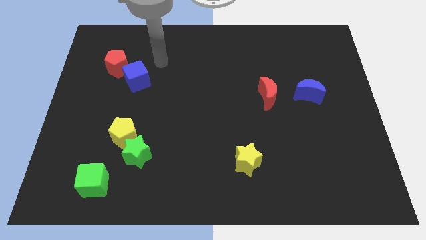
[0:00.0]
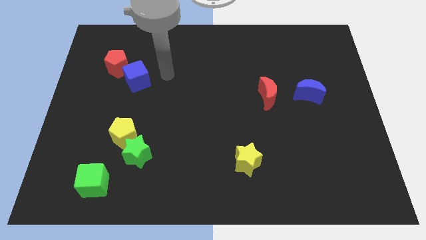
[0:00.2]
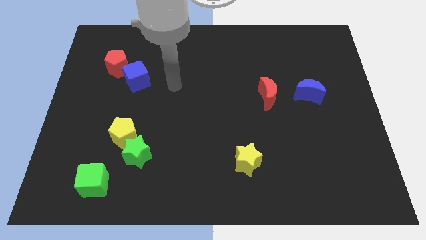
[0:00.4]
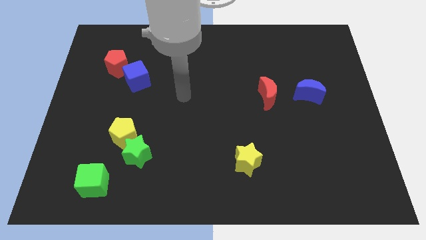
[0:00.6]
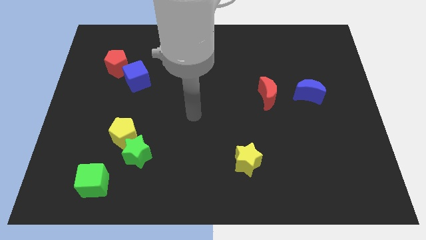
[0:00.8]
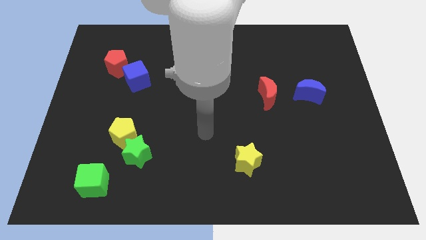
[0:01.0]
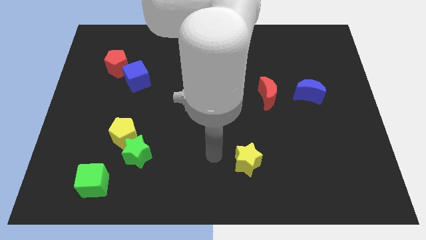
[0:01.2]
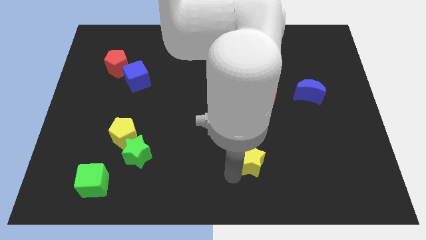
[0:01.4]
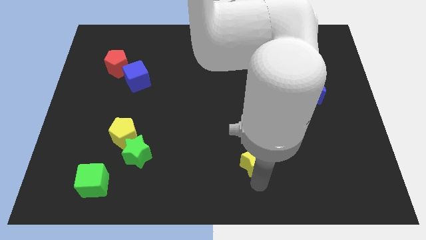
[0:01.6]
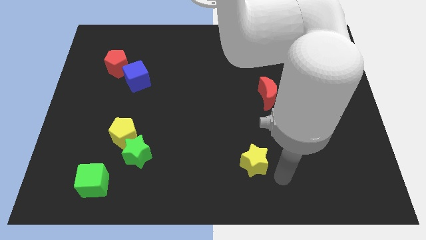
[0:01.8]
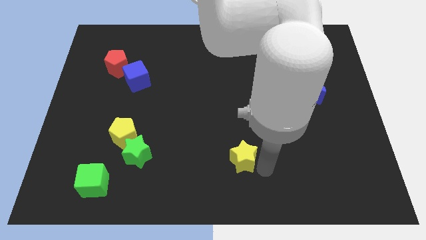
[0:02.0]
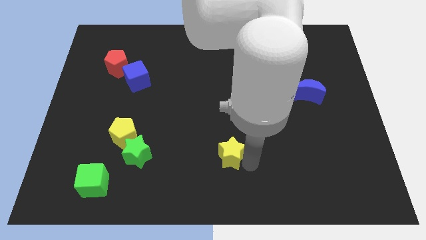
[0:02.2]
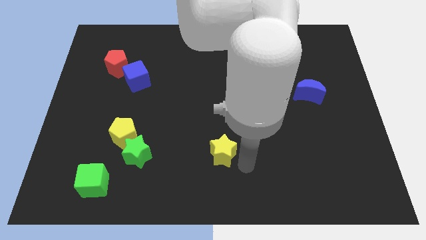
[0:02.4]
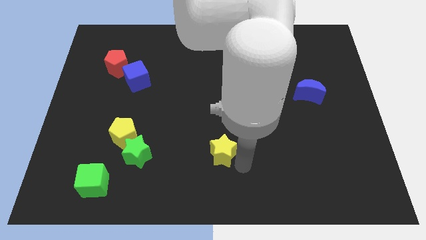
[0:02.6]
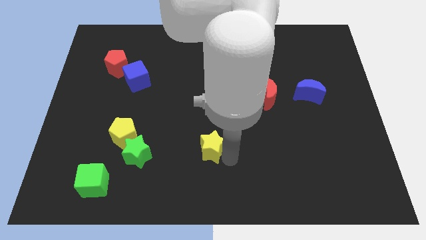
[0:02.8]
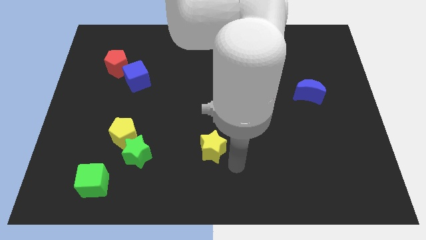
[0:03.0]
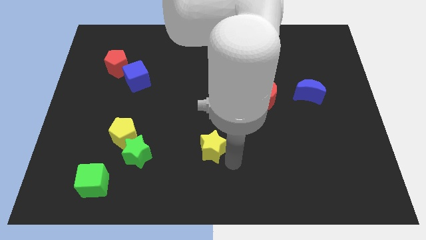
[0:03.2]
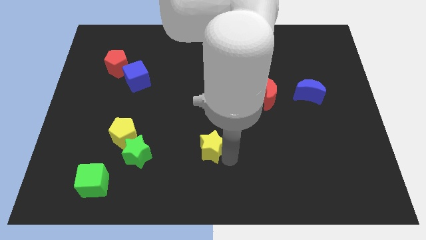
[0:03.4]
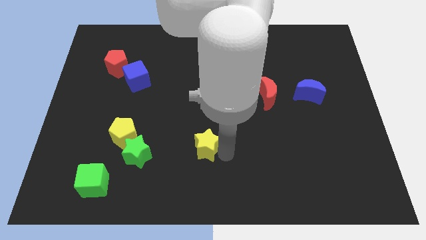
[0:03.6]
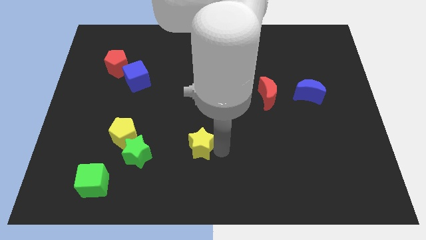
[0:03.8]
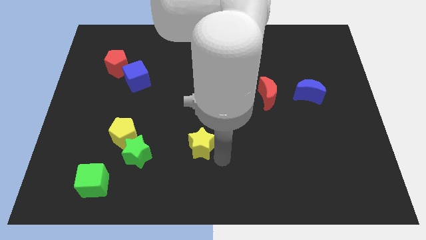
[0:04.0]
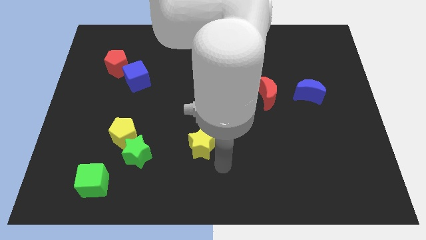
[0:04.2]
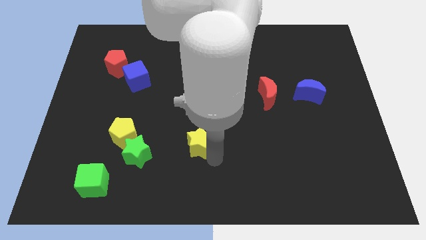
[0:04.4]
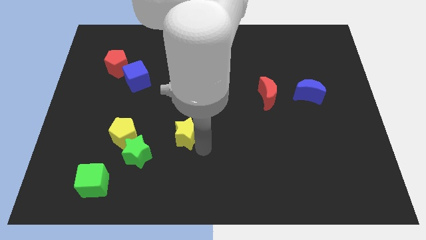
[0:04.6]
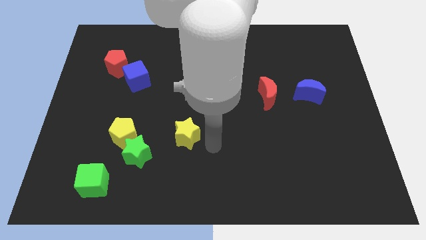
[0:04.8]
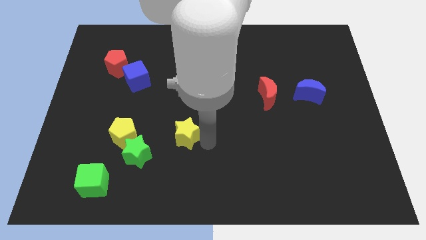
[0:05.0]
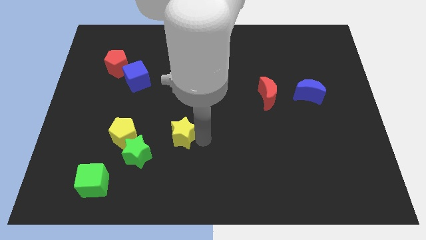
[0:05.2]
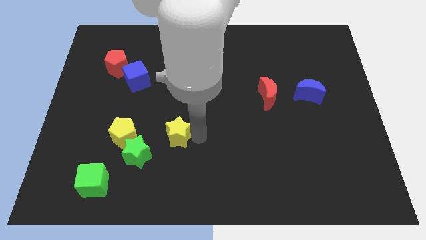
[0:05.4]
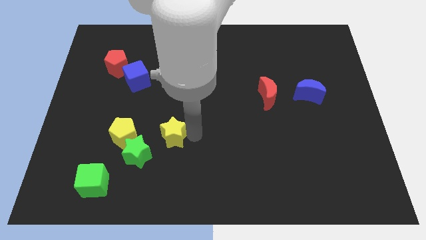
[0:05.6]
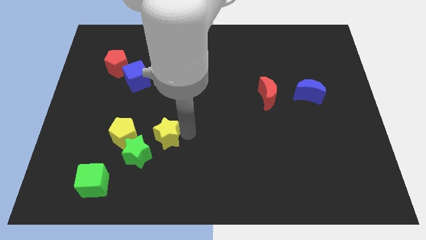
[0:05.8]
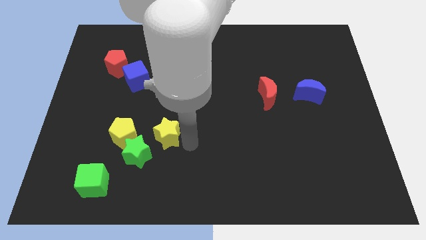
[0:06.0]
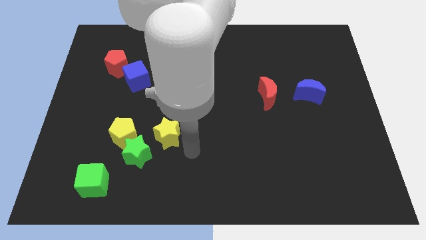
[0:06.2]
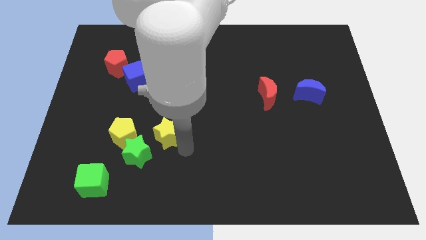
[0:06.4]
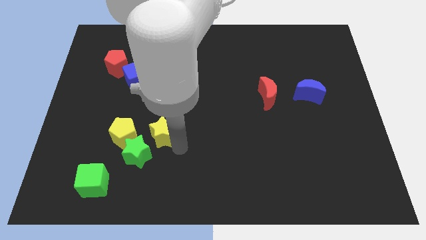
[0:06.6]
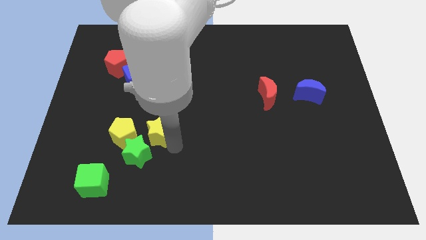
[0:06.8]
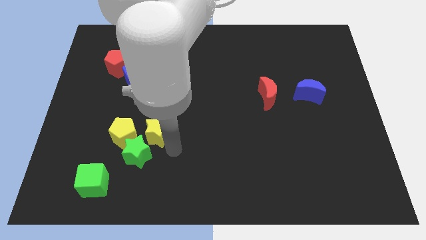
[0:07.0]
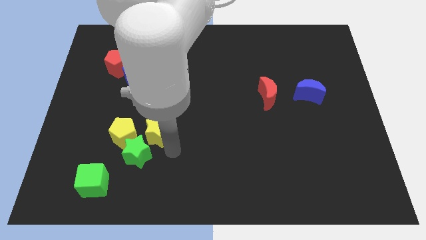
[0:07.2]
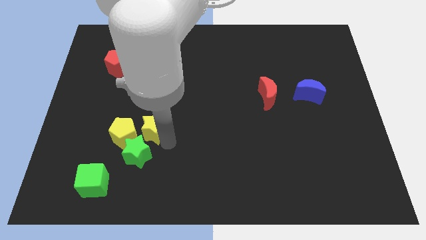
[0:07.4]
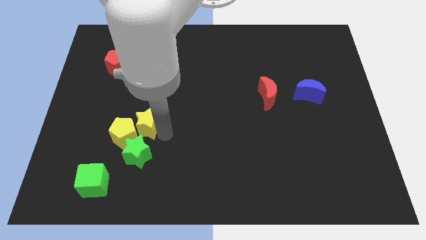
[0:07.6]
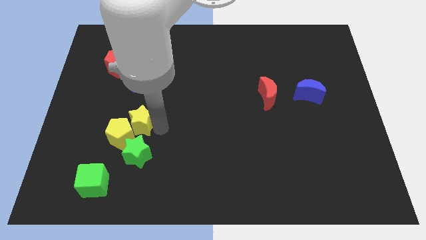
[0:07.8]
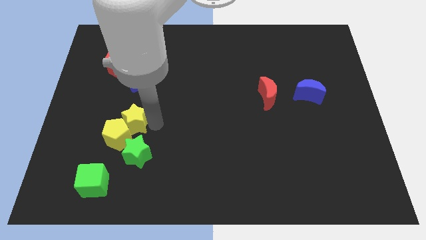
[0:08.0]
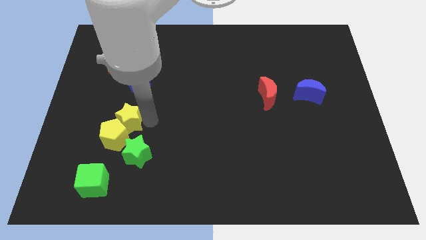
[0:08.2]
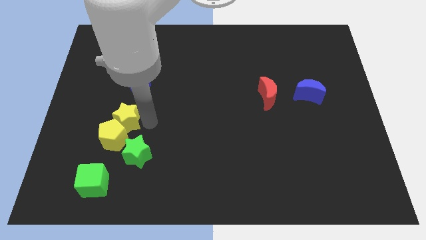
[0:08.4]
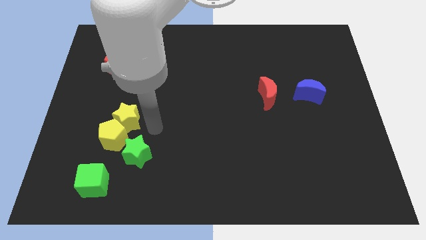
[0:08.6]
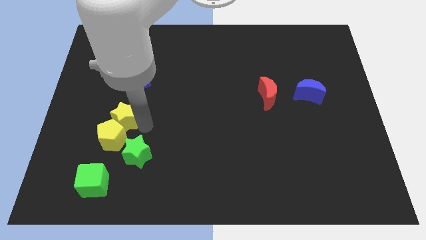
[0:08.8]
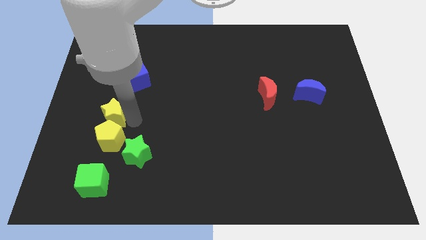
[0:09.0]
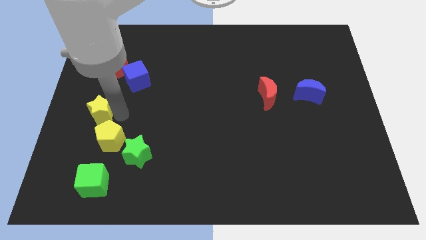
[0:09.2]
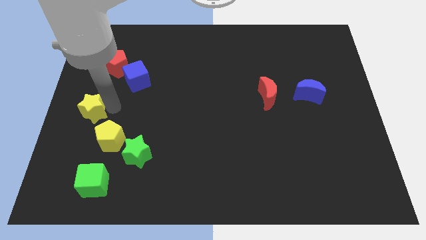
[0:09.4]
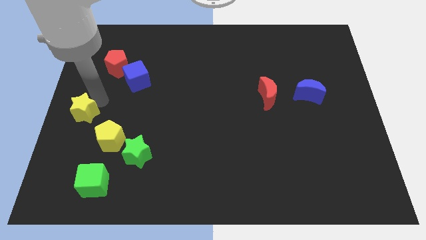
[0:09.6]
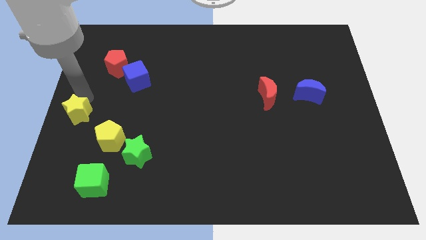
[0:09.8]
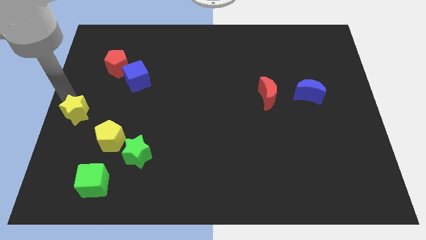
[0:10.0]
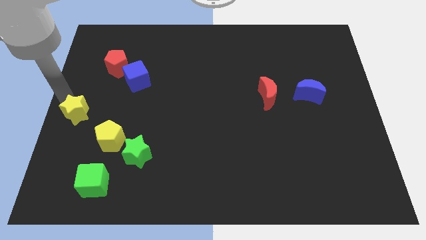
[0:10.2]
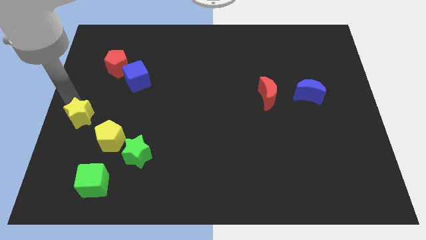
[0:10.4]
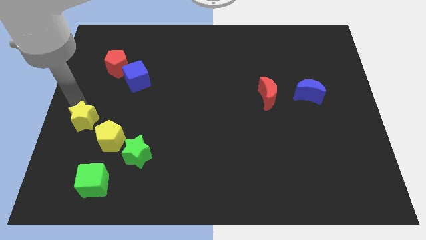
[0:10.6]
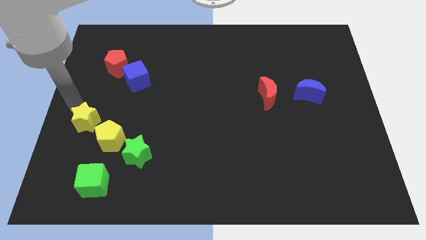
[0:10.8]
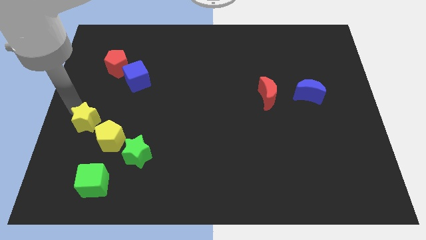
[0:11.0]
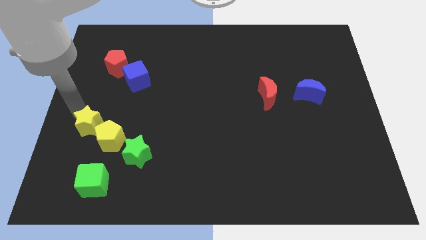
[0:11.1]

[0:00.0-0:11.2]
slide the yellow star to the top side of the green cube

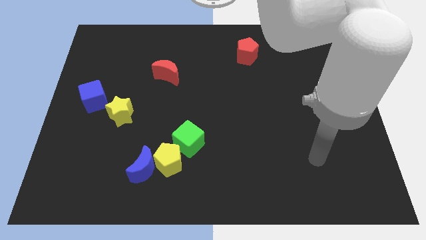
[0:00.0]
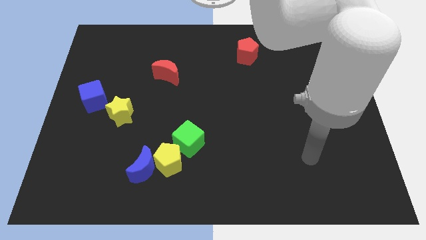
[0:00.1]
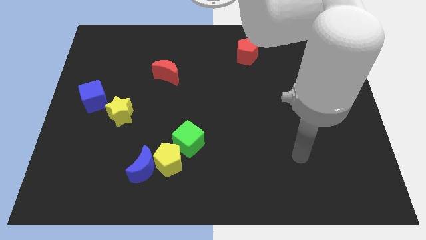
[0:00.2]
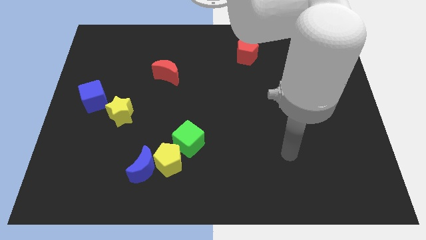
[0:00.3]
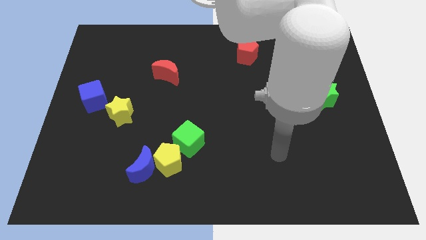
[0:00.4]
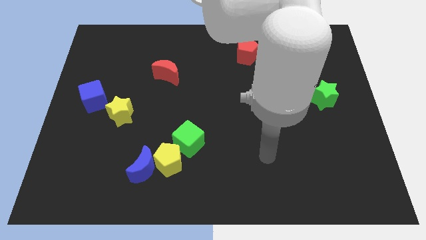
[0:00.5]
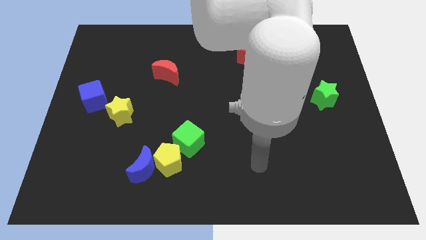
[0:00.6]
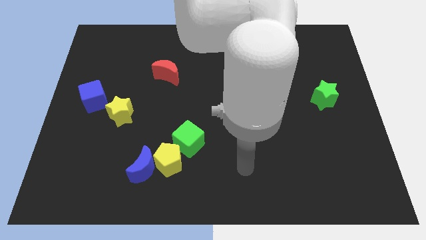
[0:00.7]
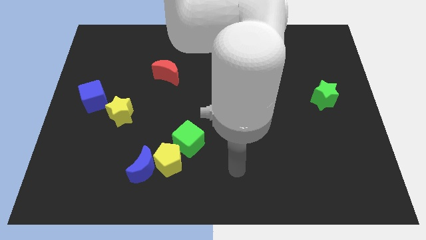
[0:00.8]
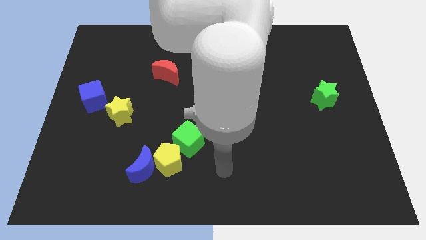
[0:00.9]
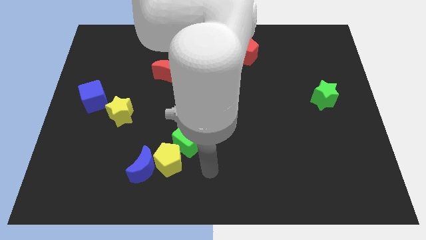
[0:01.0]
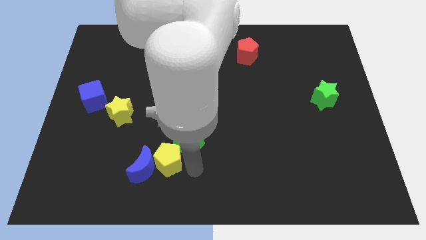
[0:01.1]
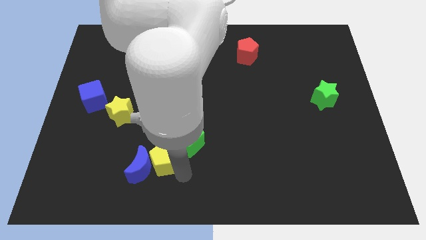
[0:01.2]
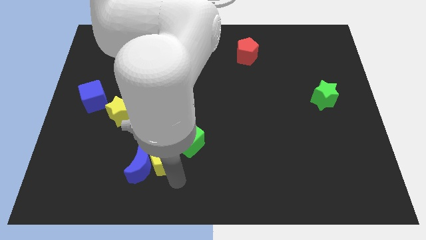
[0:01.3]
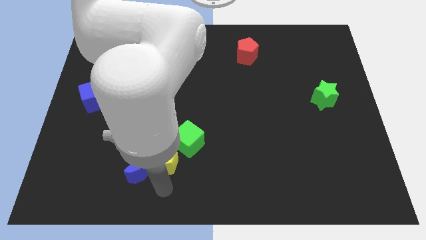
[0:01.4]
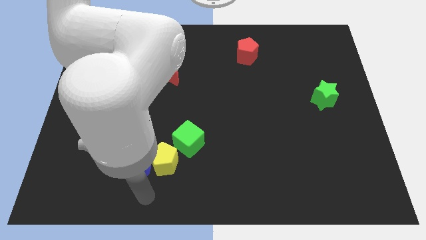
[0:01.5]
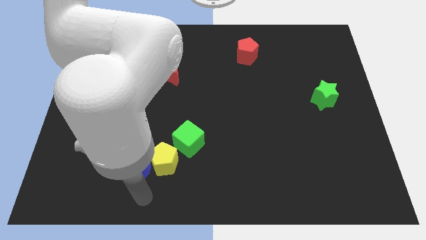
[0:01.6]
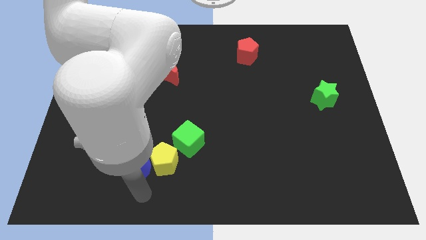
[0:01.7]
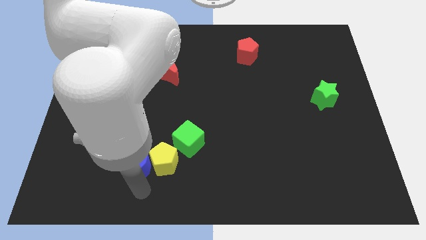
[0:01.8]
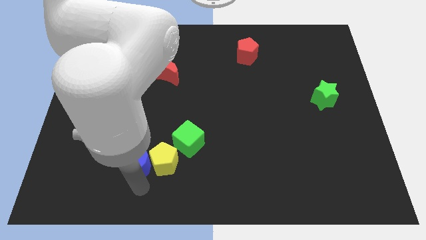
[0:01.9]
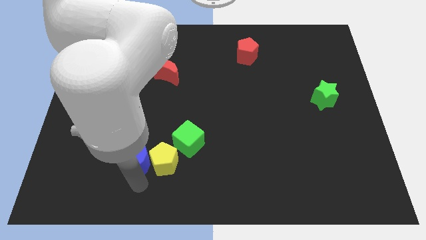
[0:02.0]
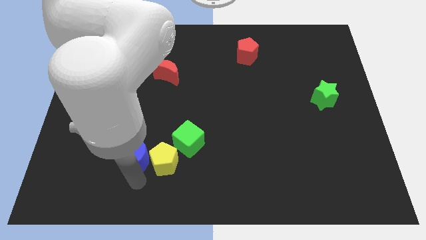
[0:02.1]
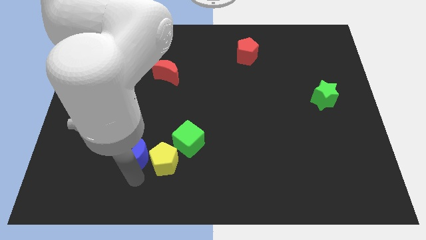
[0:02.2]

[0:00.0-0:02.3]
put the blue moon to the left of the green cube
